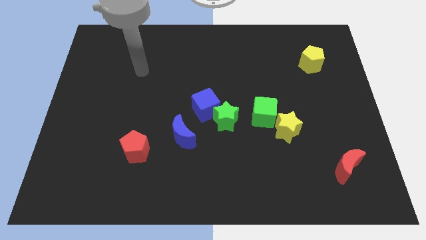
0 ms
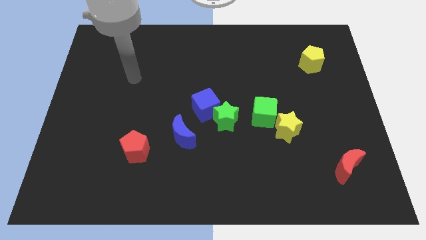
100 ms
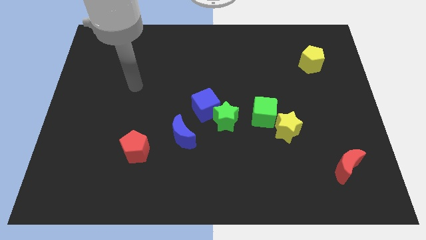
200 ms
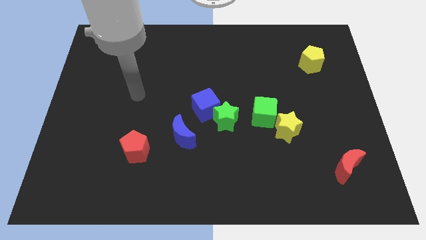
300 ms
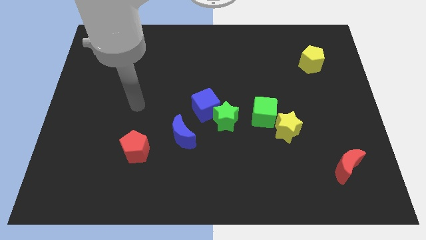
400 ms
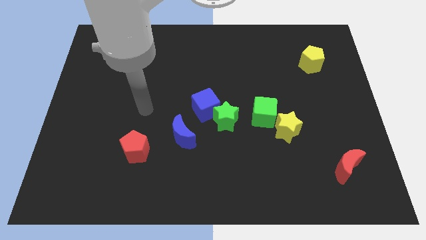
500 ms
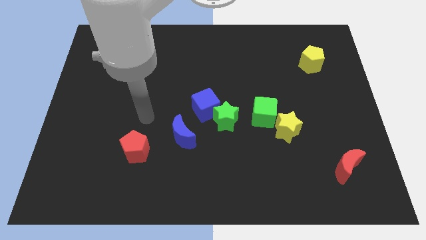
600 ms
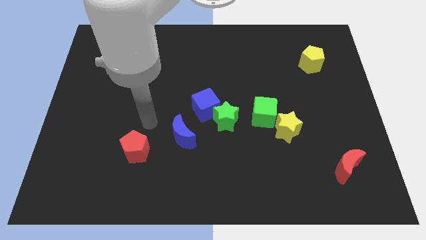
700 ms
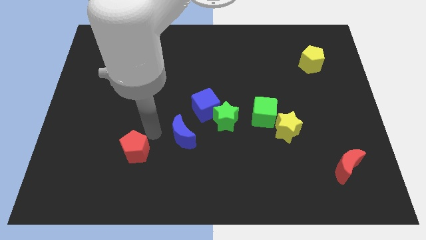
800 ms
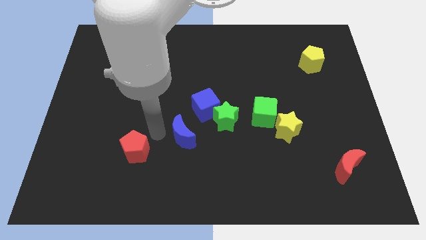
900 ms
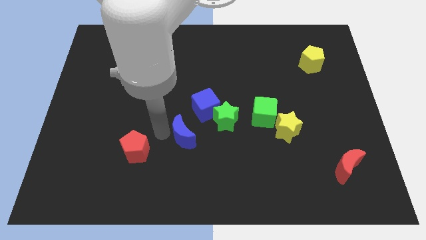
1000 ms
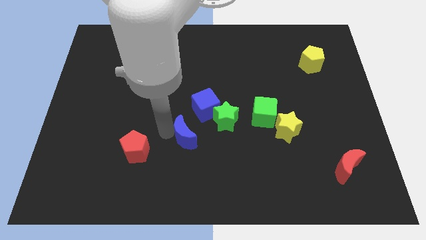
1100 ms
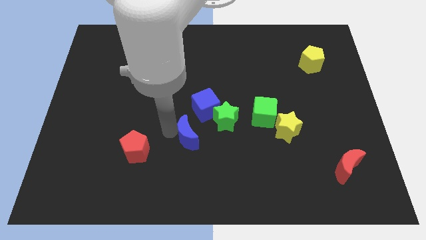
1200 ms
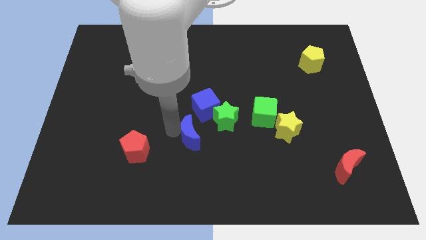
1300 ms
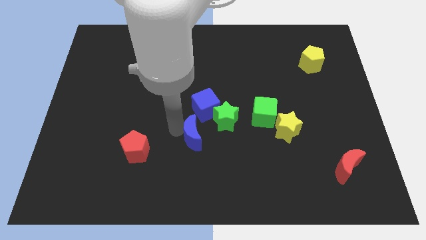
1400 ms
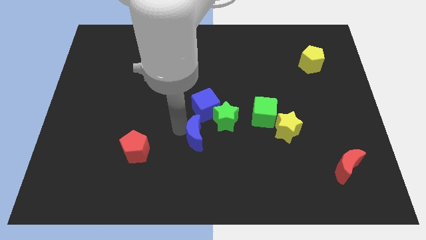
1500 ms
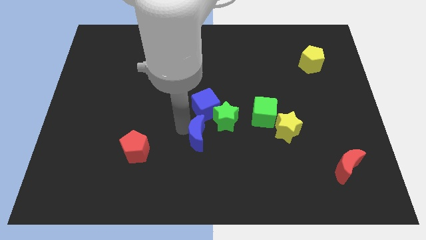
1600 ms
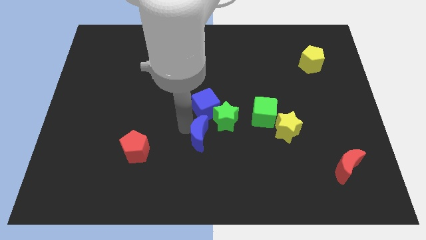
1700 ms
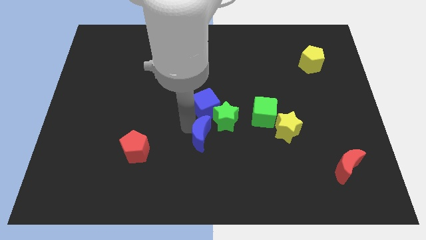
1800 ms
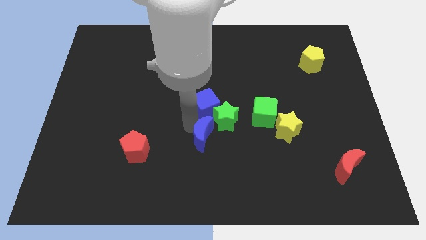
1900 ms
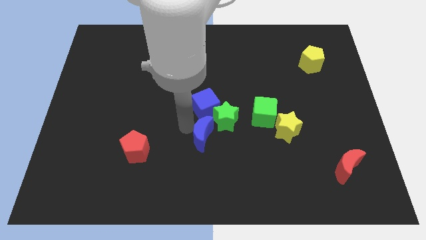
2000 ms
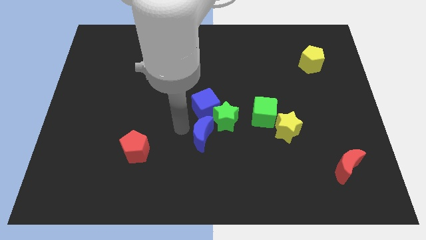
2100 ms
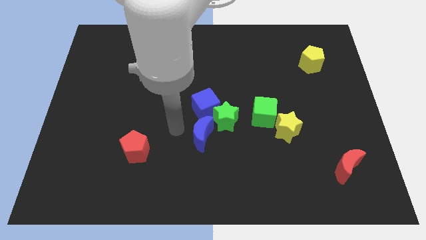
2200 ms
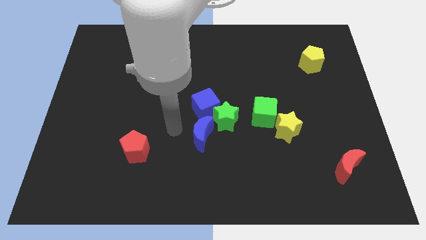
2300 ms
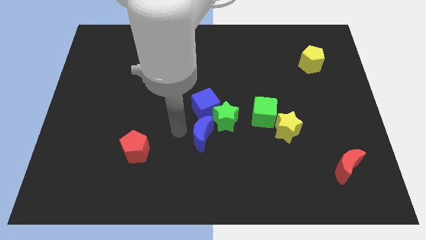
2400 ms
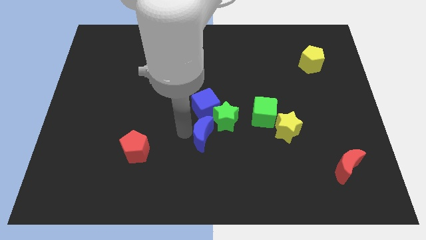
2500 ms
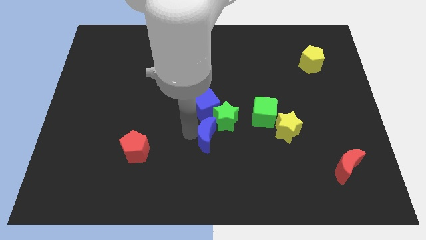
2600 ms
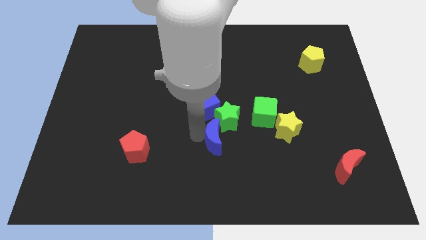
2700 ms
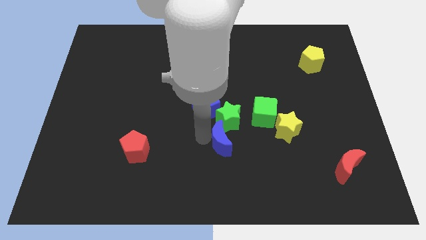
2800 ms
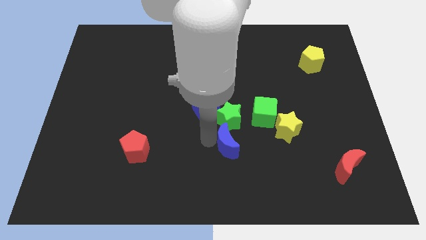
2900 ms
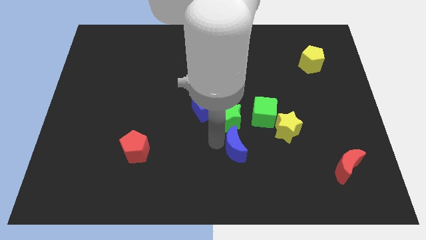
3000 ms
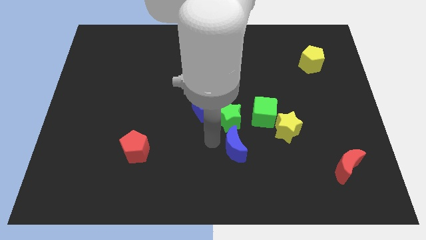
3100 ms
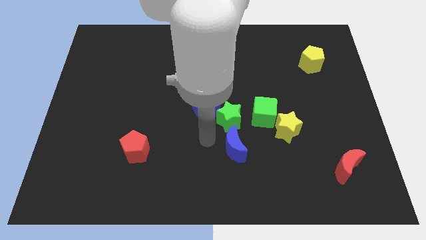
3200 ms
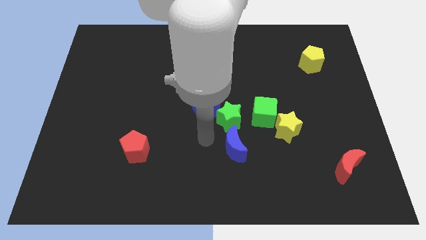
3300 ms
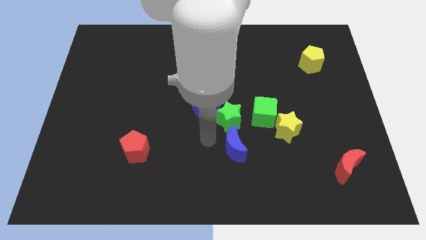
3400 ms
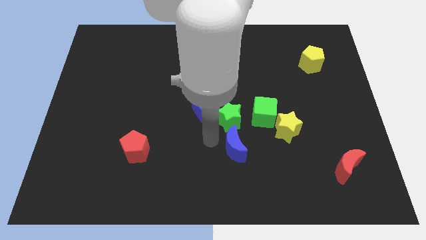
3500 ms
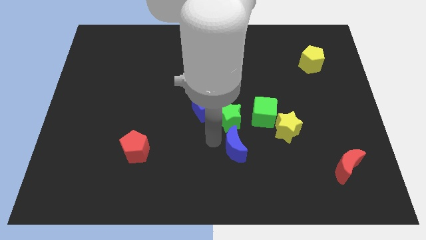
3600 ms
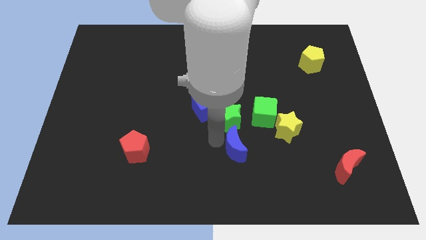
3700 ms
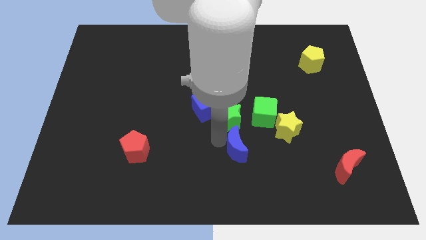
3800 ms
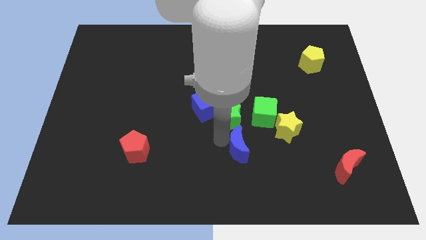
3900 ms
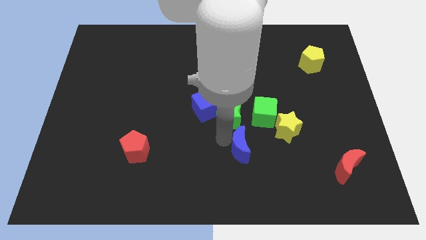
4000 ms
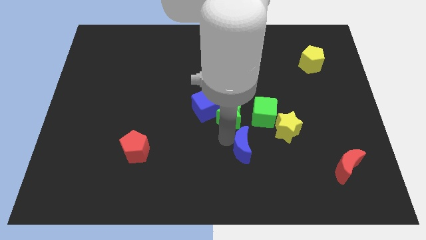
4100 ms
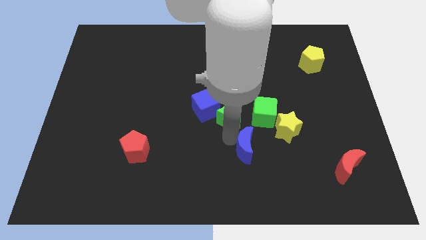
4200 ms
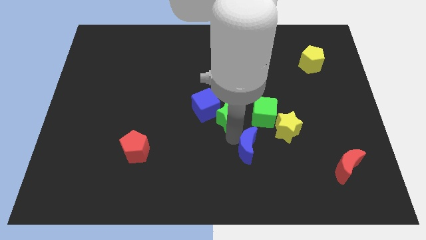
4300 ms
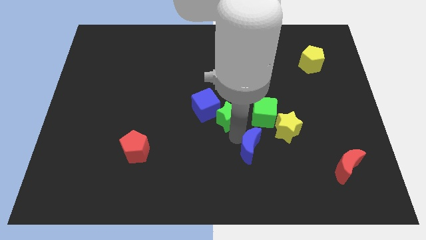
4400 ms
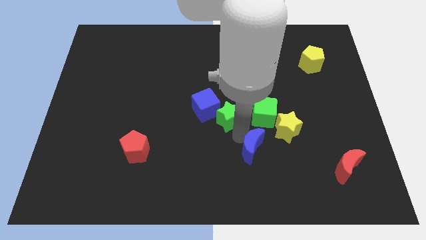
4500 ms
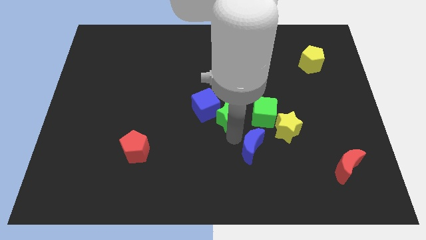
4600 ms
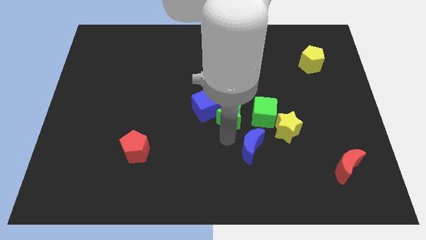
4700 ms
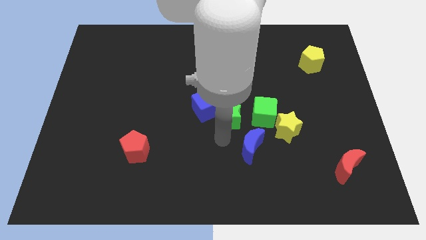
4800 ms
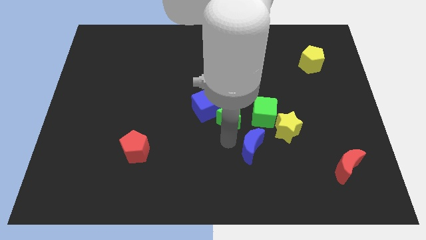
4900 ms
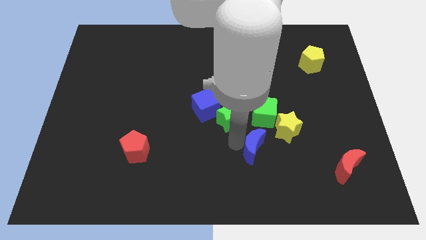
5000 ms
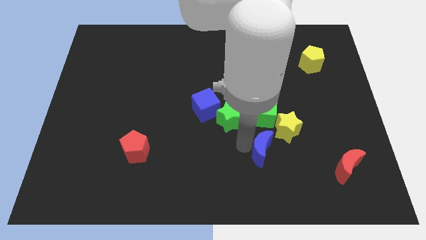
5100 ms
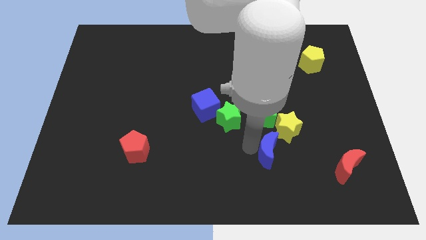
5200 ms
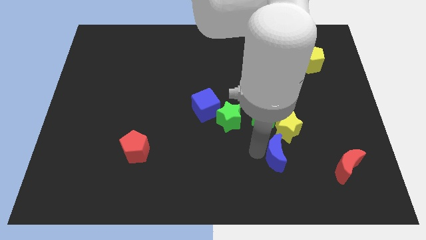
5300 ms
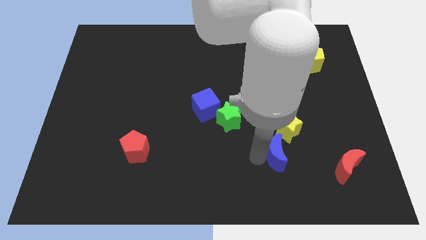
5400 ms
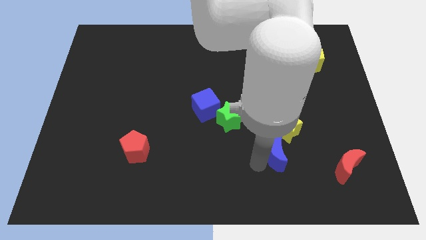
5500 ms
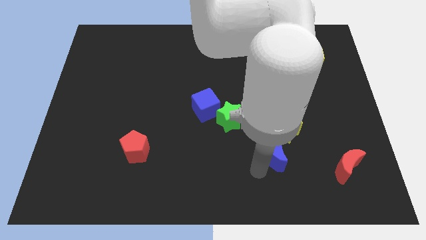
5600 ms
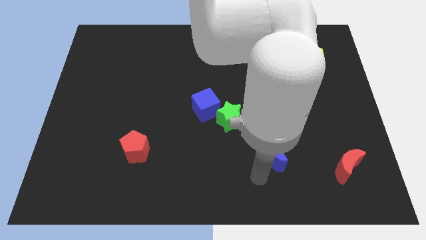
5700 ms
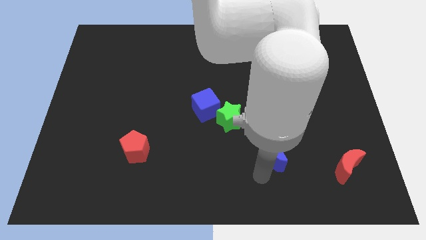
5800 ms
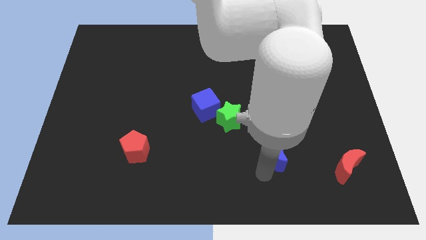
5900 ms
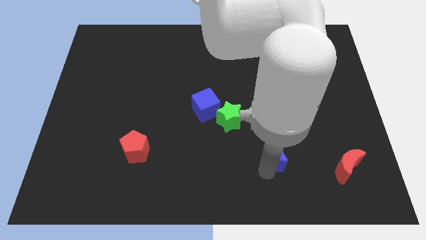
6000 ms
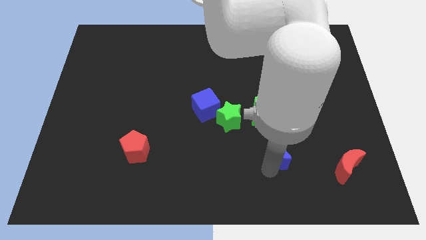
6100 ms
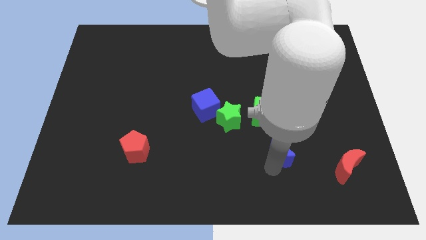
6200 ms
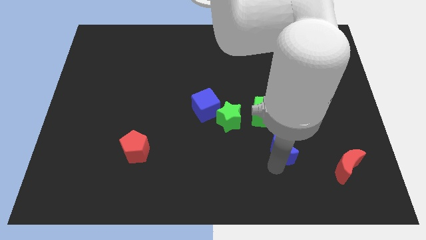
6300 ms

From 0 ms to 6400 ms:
push the blue moon diagonally down and to the right of the green cube

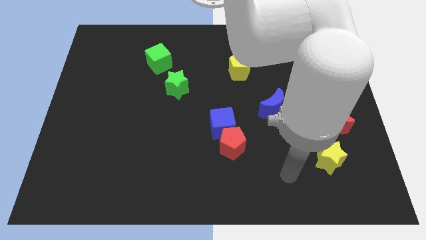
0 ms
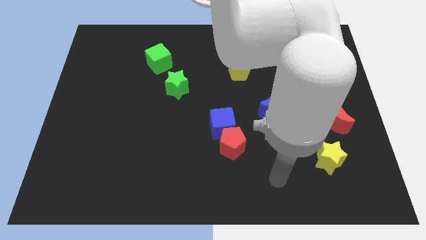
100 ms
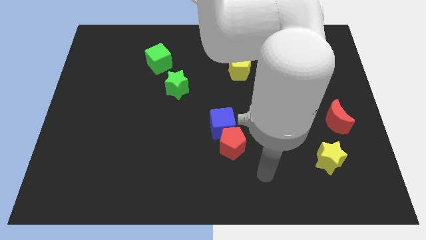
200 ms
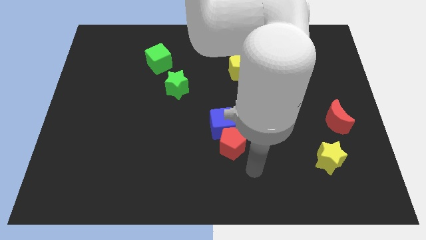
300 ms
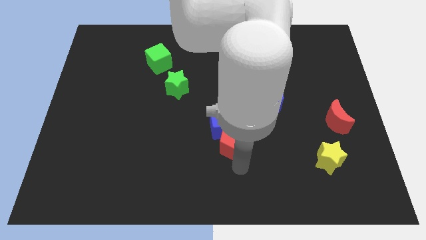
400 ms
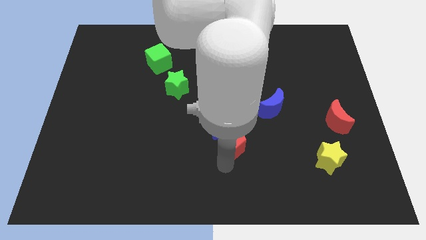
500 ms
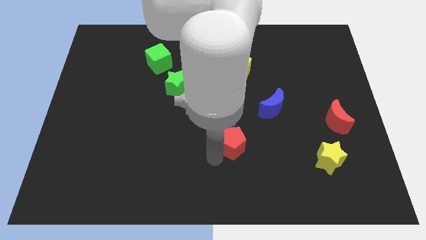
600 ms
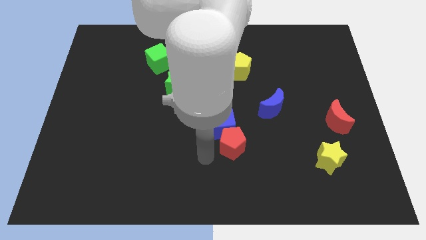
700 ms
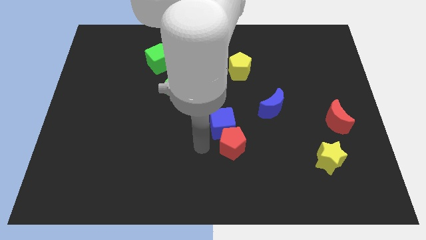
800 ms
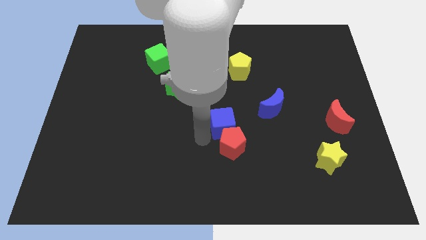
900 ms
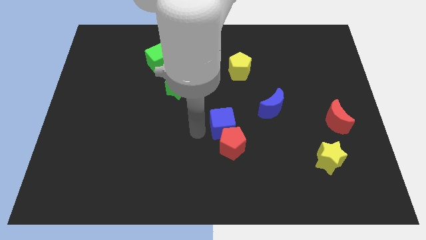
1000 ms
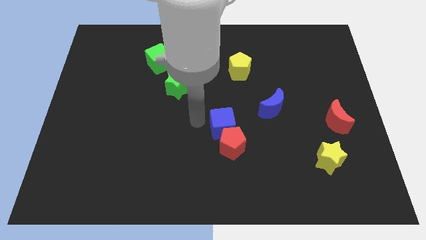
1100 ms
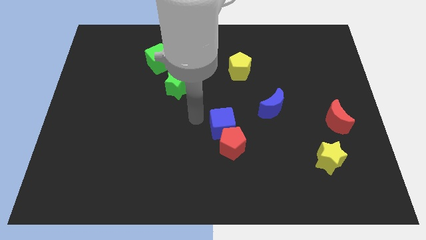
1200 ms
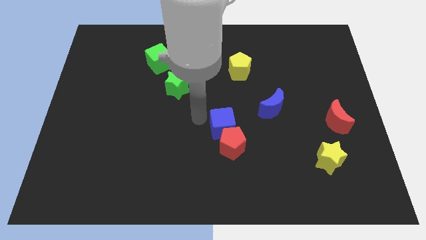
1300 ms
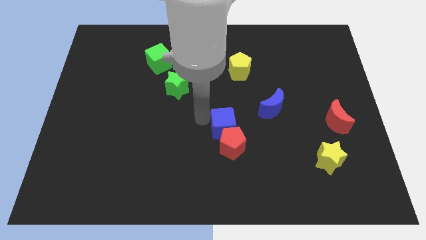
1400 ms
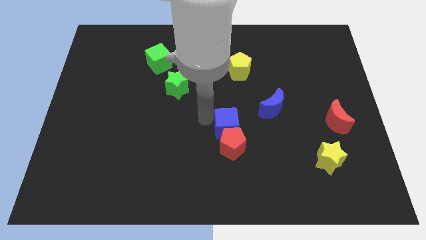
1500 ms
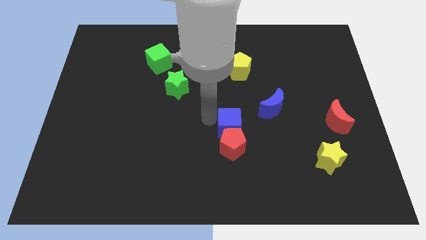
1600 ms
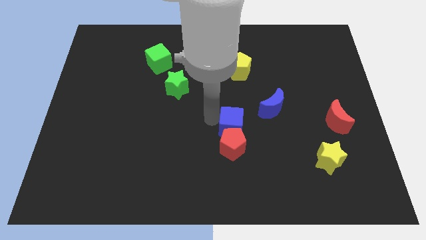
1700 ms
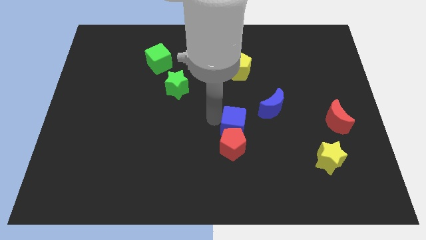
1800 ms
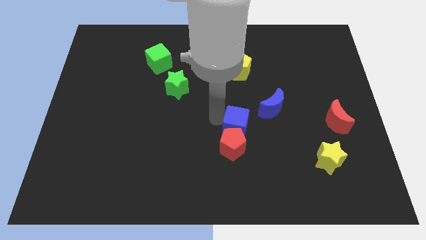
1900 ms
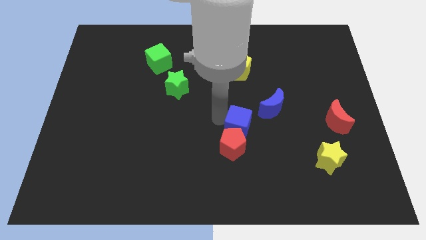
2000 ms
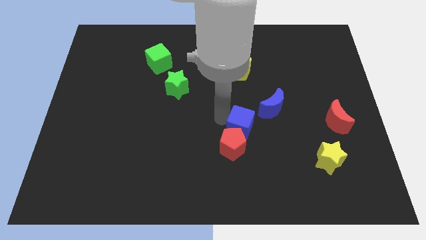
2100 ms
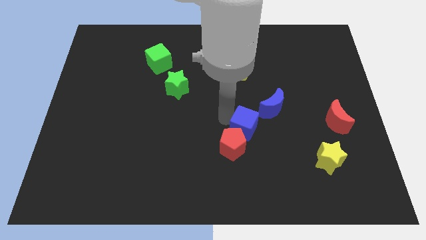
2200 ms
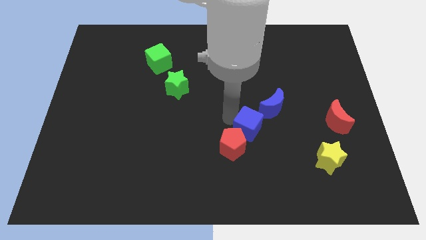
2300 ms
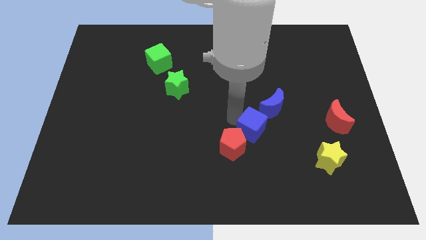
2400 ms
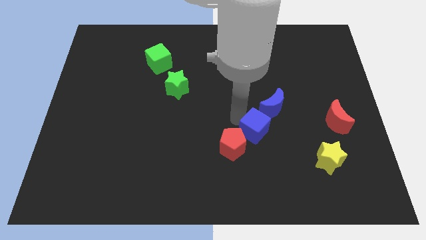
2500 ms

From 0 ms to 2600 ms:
push the blue cube below the blue moon
